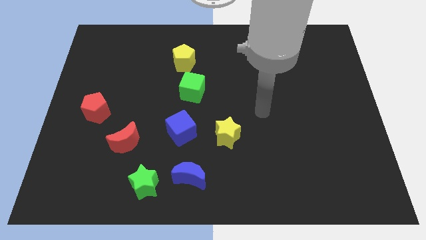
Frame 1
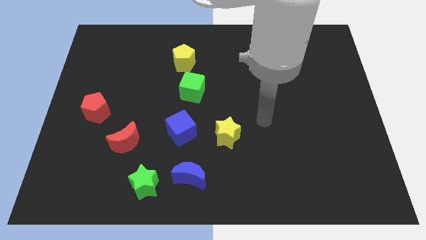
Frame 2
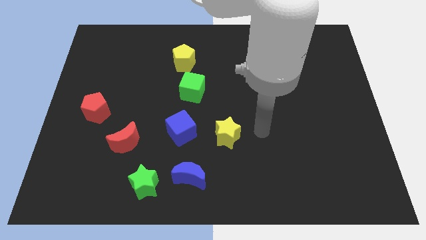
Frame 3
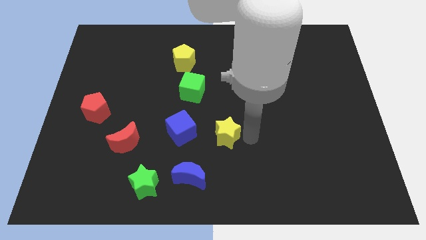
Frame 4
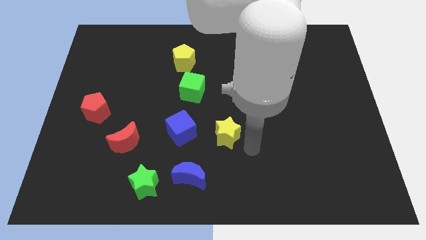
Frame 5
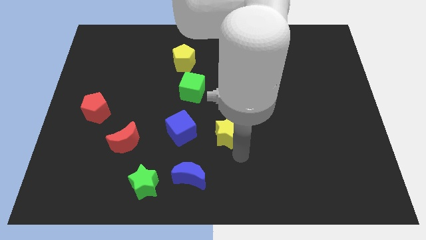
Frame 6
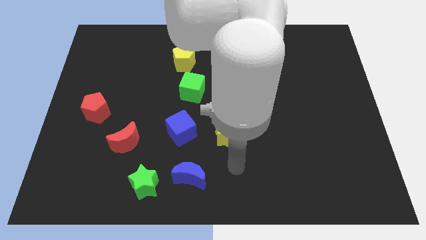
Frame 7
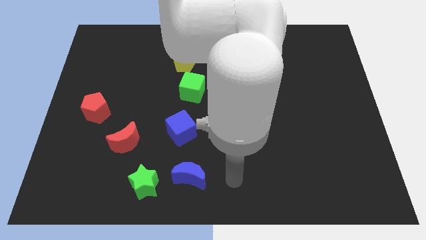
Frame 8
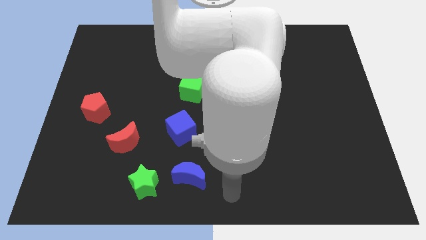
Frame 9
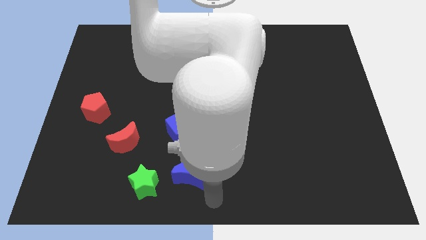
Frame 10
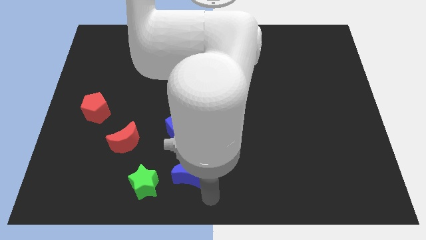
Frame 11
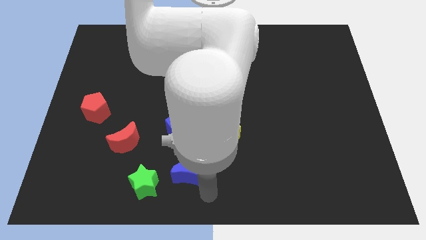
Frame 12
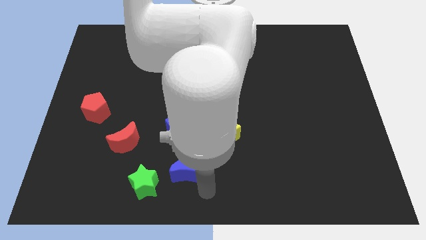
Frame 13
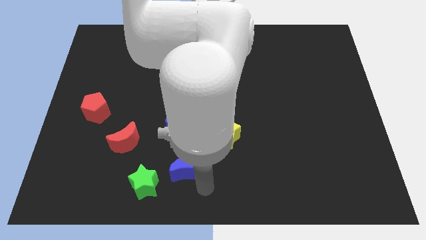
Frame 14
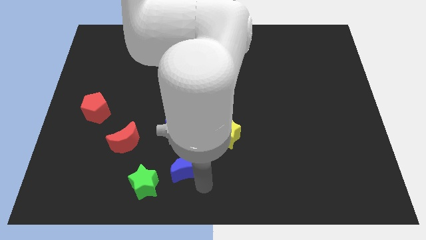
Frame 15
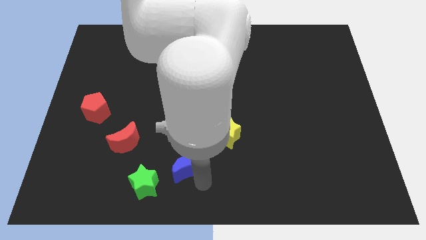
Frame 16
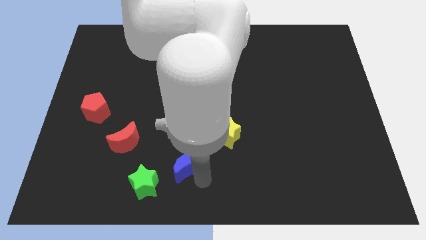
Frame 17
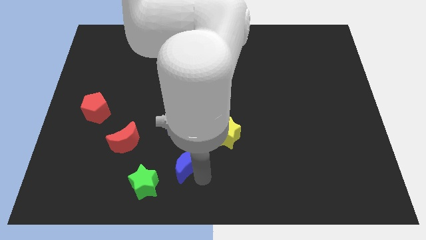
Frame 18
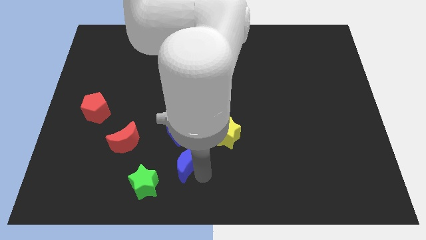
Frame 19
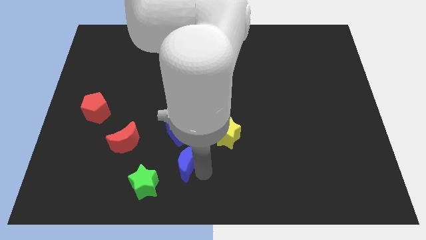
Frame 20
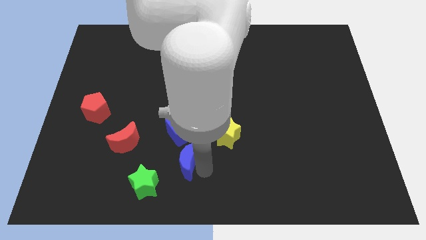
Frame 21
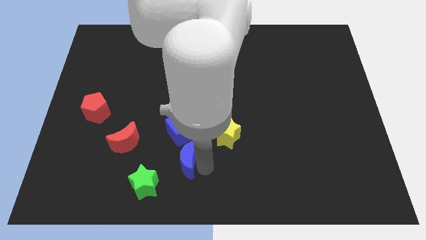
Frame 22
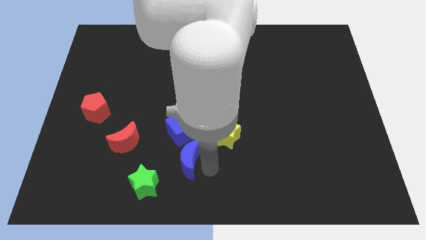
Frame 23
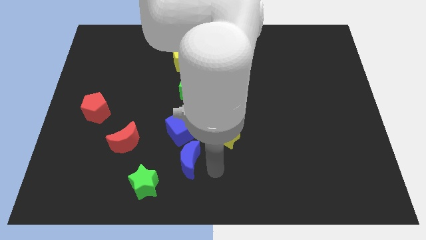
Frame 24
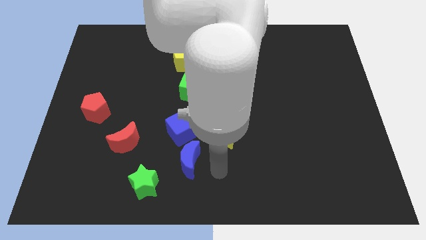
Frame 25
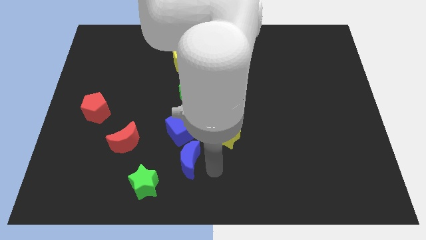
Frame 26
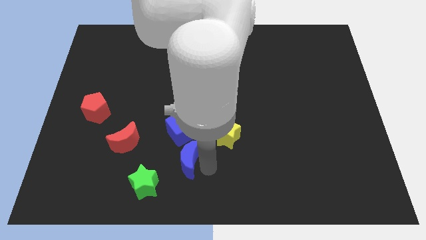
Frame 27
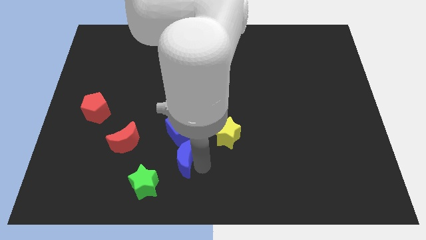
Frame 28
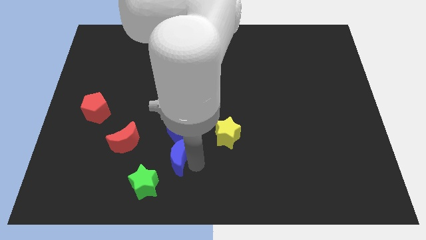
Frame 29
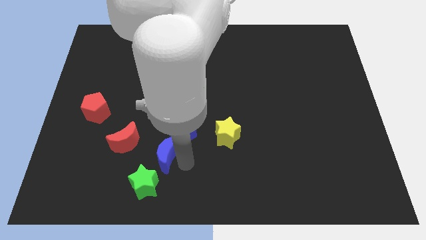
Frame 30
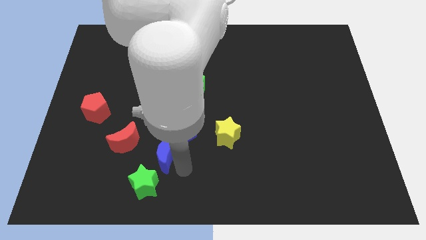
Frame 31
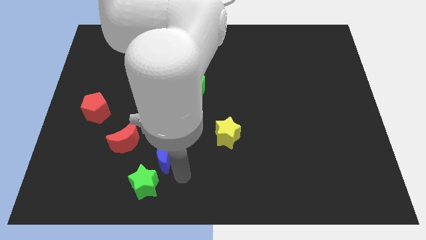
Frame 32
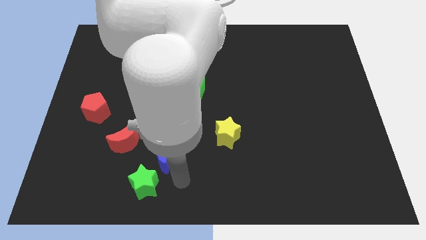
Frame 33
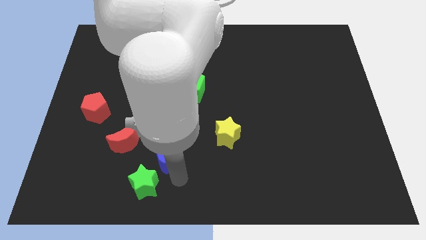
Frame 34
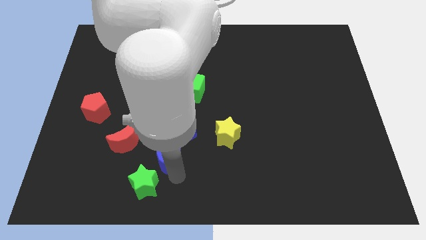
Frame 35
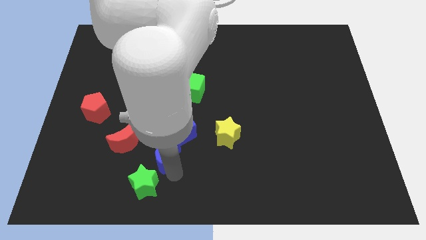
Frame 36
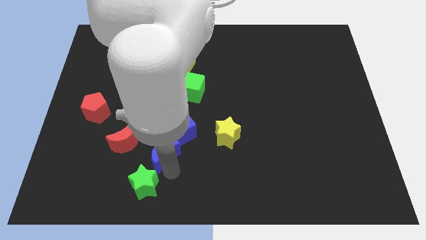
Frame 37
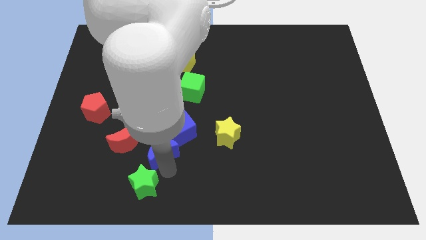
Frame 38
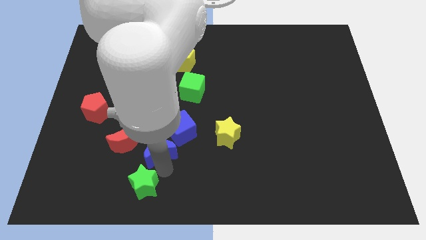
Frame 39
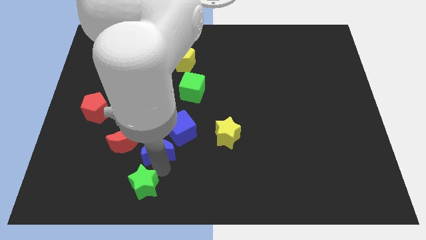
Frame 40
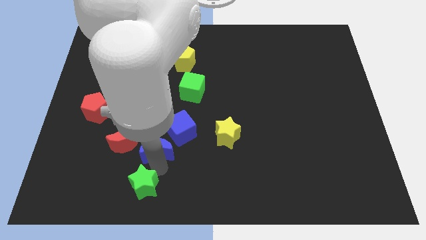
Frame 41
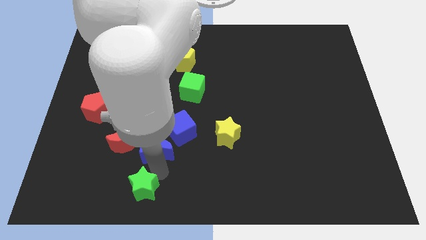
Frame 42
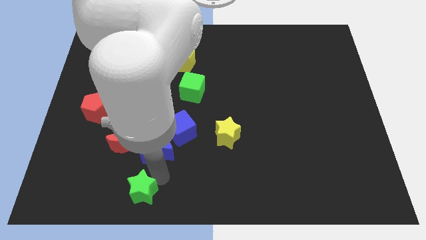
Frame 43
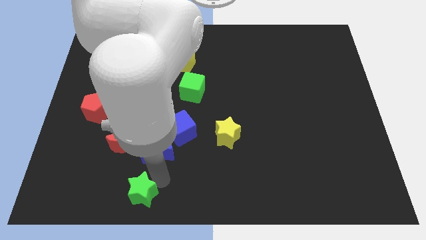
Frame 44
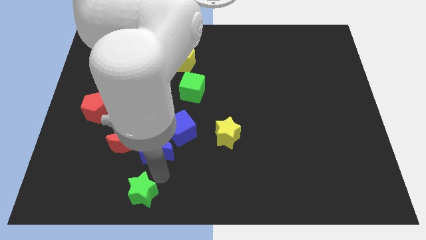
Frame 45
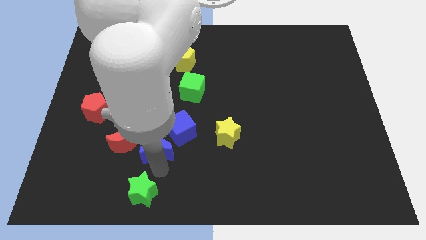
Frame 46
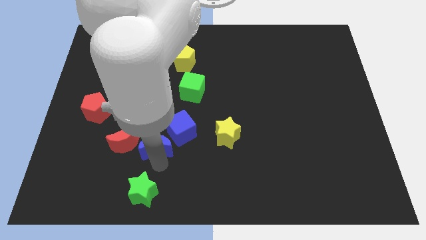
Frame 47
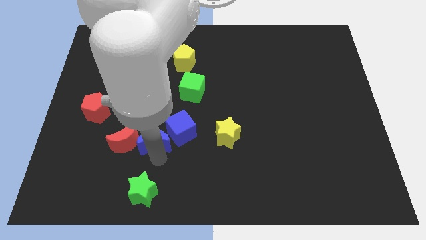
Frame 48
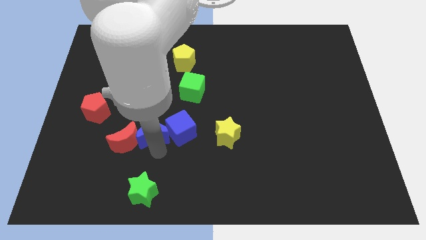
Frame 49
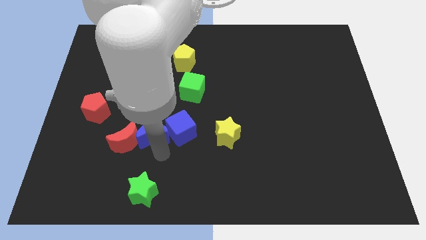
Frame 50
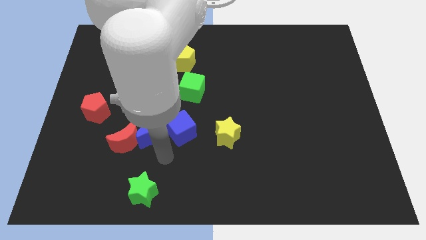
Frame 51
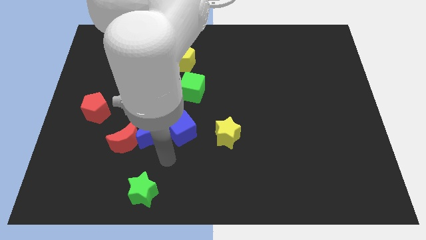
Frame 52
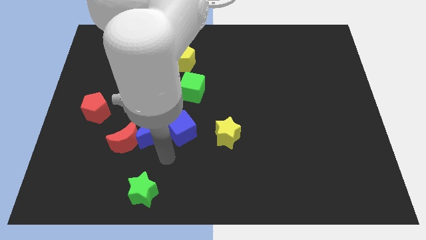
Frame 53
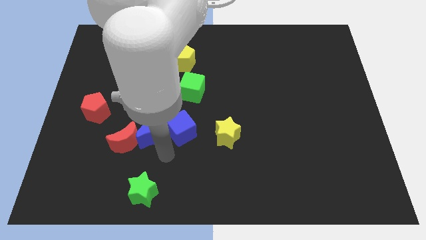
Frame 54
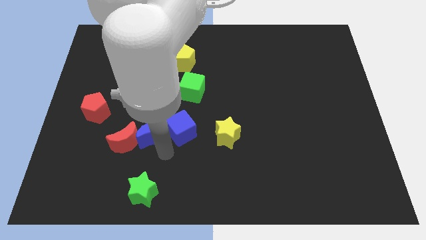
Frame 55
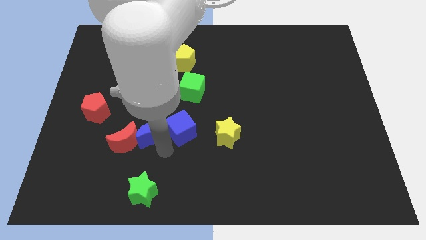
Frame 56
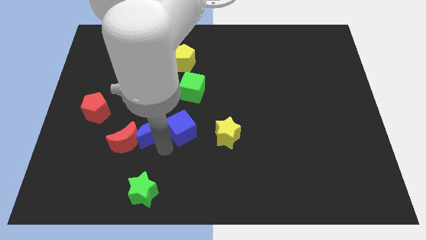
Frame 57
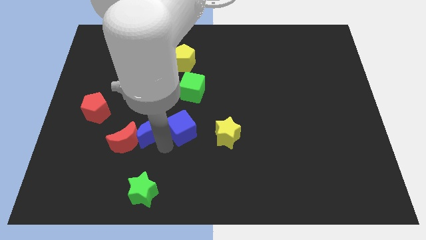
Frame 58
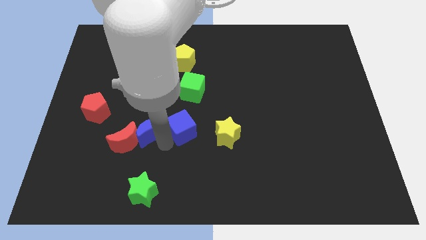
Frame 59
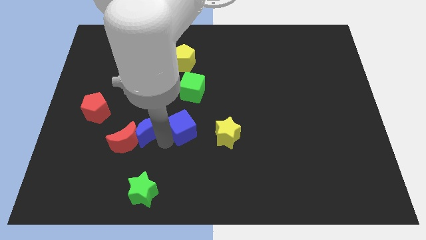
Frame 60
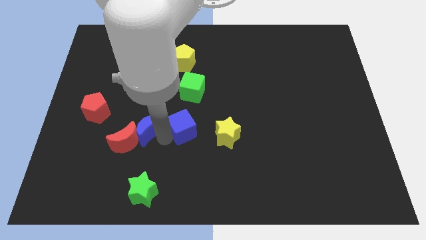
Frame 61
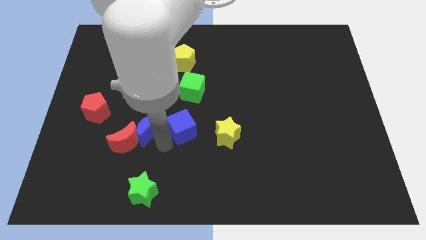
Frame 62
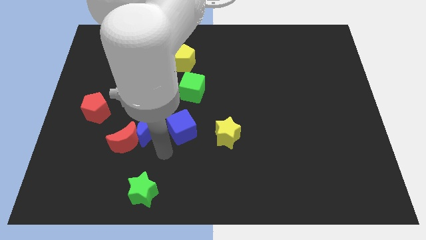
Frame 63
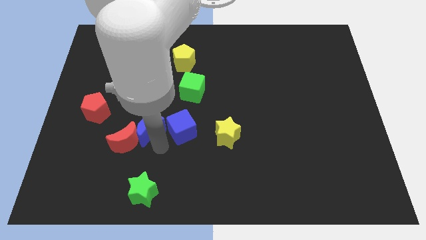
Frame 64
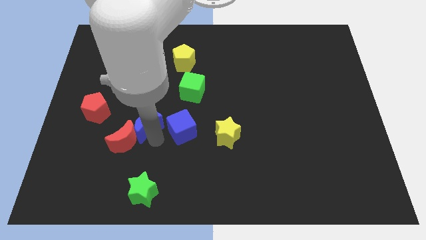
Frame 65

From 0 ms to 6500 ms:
move the blue moon to the top of the red moon
